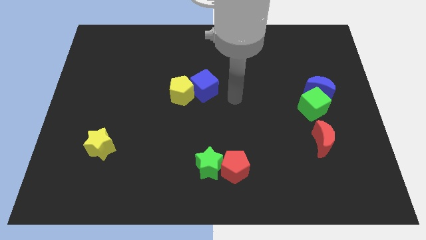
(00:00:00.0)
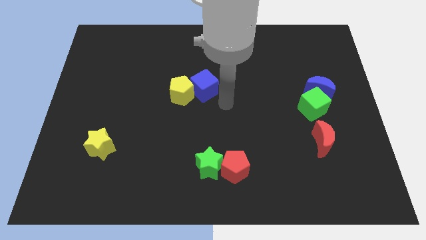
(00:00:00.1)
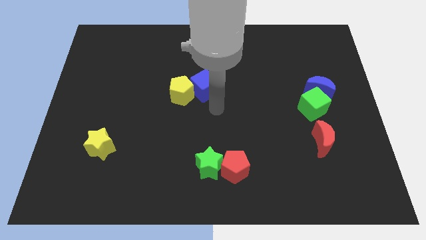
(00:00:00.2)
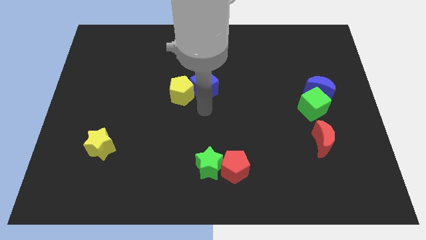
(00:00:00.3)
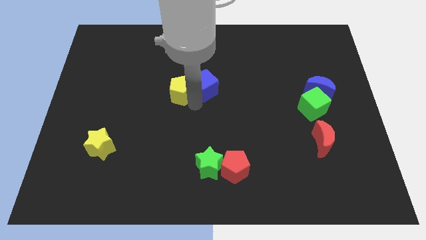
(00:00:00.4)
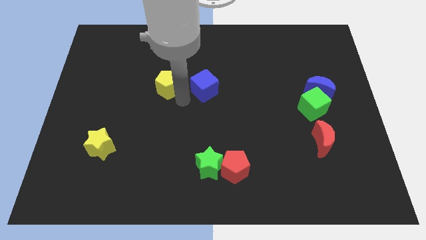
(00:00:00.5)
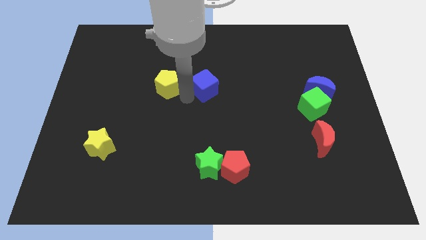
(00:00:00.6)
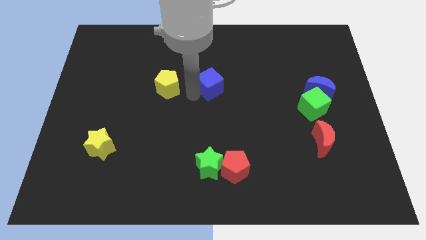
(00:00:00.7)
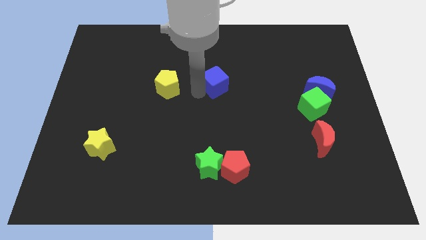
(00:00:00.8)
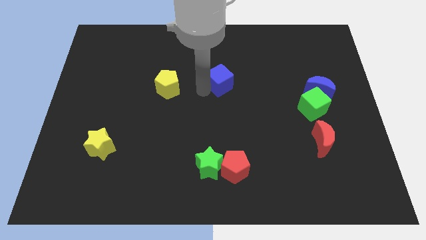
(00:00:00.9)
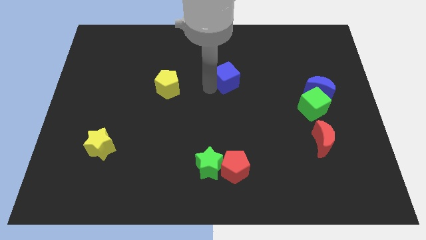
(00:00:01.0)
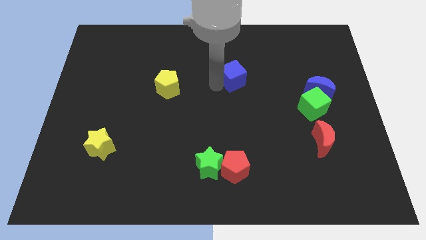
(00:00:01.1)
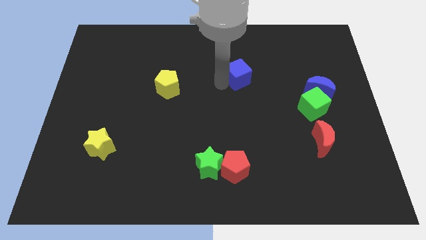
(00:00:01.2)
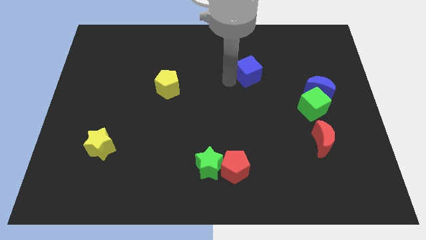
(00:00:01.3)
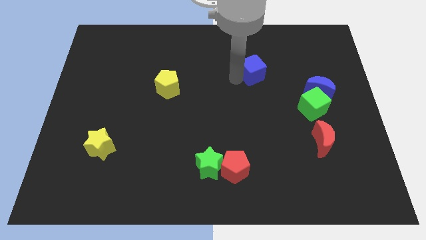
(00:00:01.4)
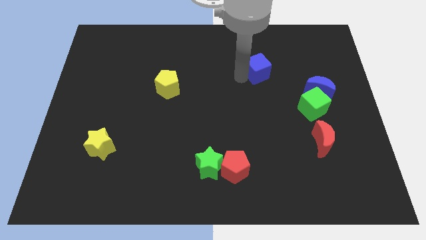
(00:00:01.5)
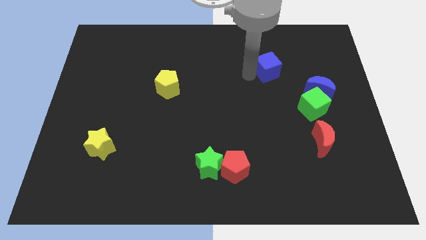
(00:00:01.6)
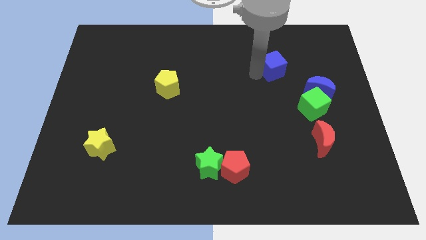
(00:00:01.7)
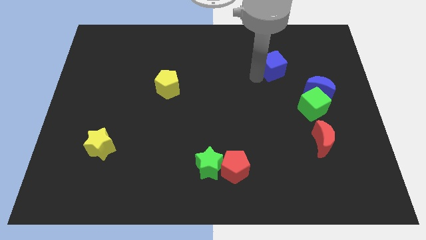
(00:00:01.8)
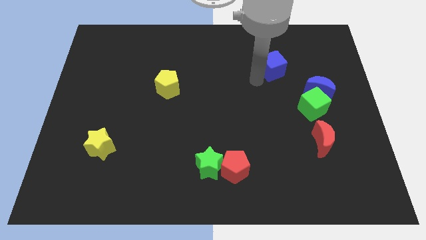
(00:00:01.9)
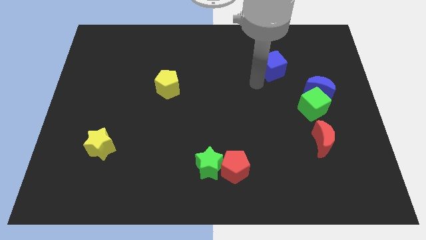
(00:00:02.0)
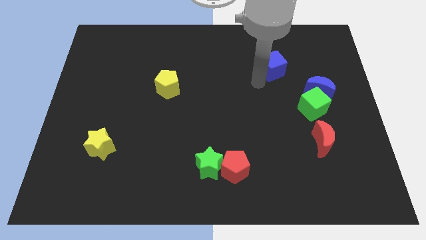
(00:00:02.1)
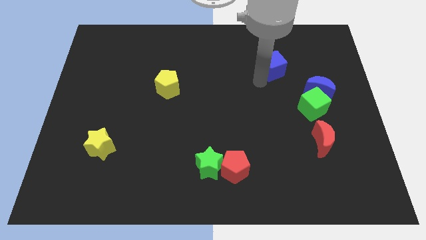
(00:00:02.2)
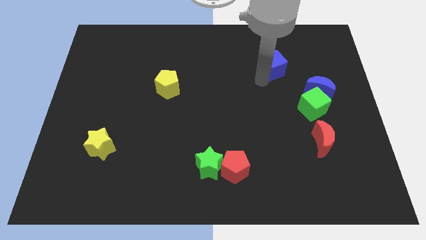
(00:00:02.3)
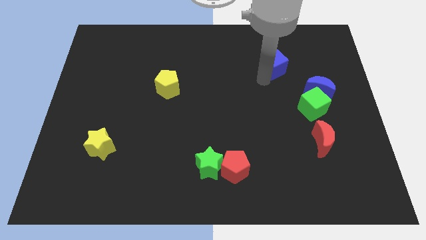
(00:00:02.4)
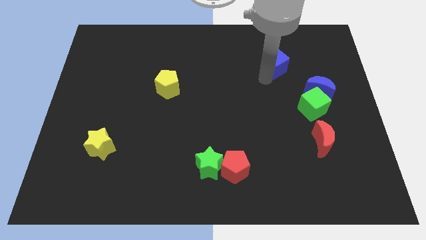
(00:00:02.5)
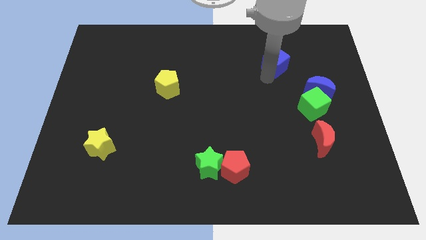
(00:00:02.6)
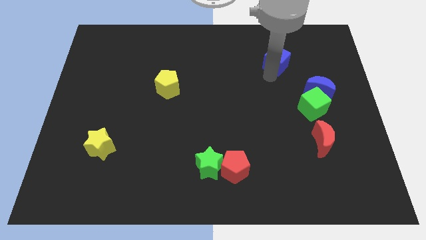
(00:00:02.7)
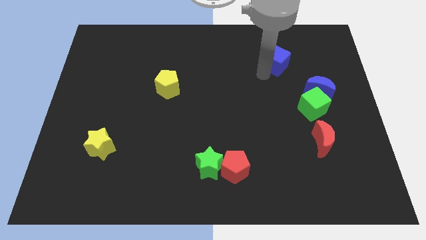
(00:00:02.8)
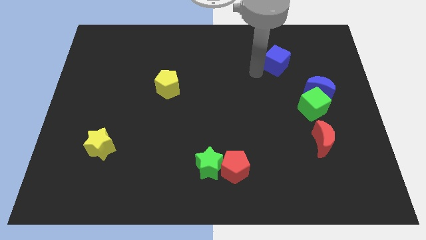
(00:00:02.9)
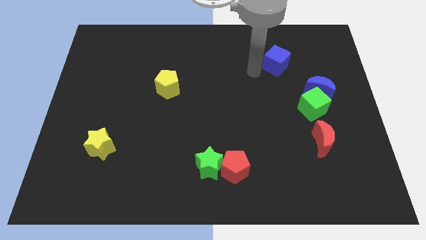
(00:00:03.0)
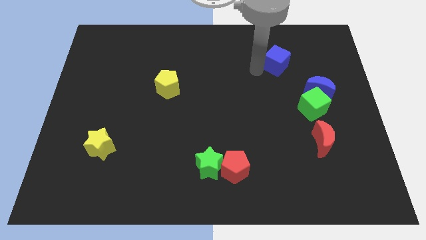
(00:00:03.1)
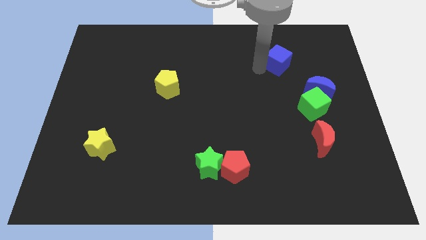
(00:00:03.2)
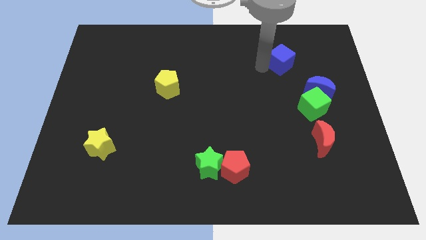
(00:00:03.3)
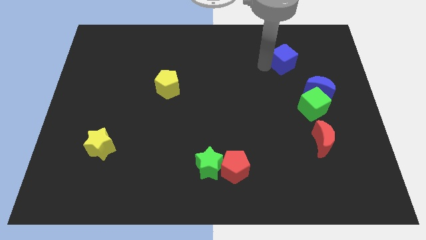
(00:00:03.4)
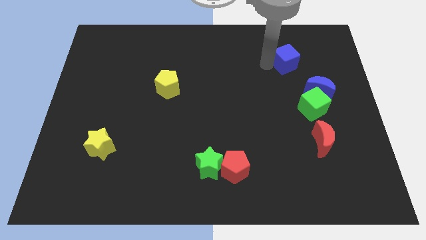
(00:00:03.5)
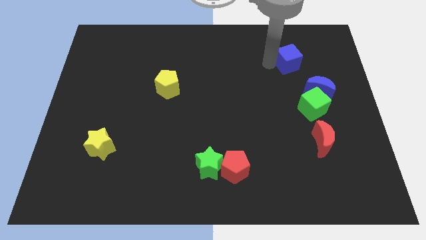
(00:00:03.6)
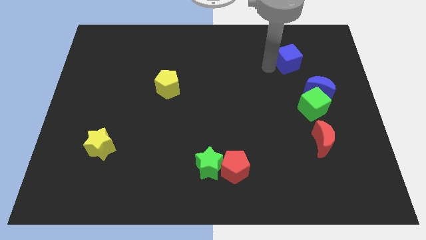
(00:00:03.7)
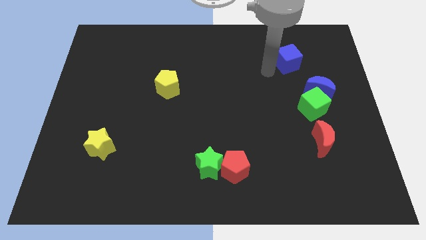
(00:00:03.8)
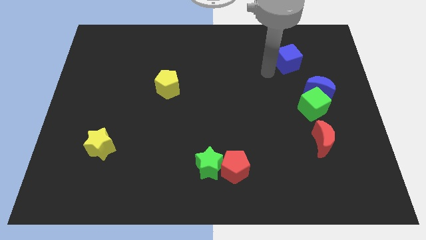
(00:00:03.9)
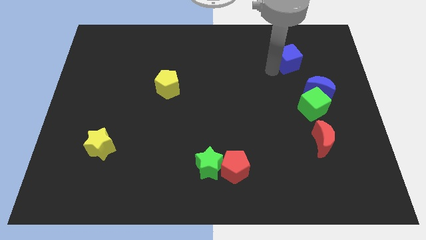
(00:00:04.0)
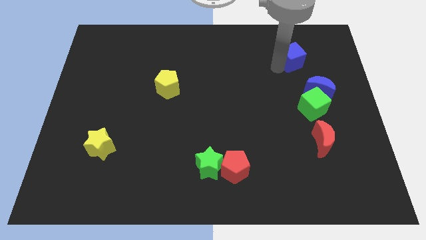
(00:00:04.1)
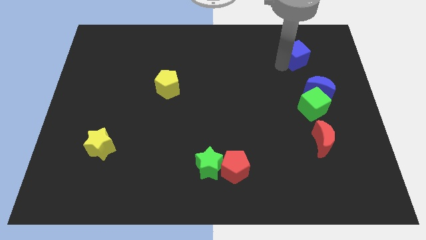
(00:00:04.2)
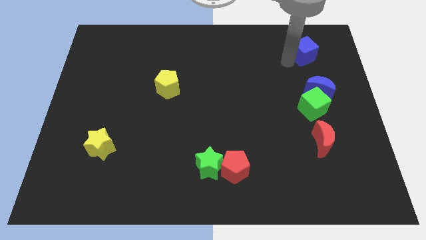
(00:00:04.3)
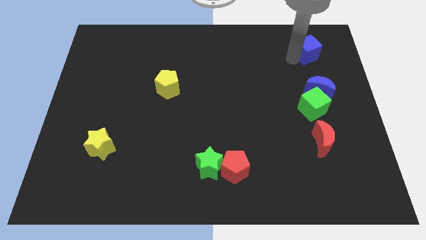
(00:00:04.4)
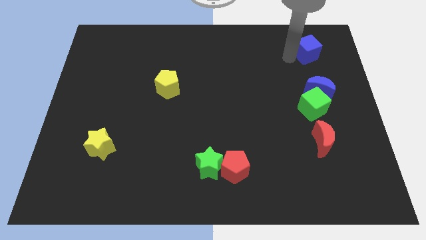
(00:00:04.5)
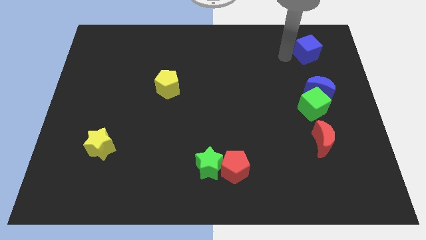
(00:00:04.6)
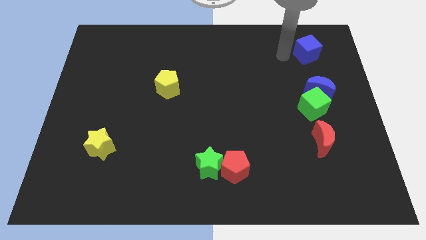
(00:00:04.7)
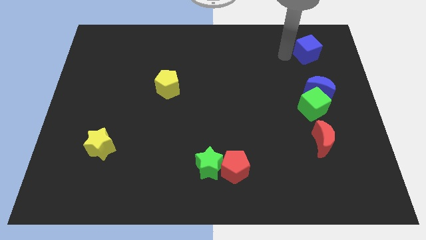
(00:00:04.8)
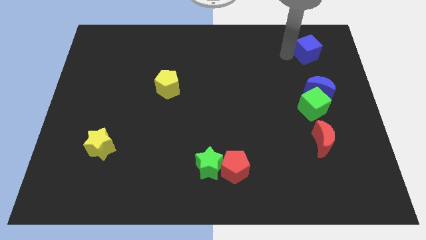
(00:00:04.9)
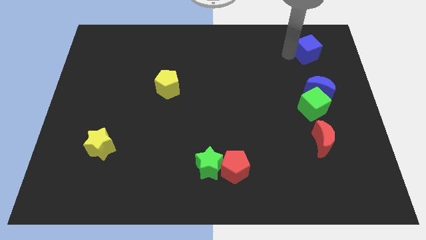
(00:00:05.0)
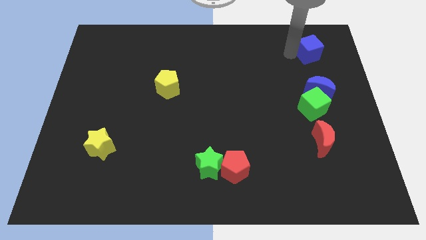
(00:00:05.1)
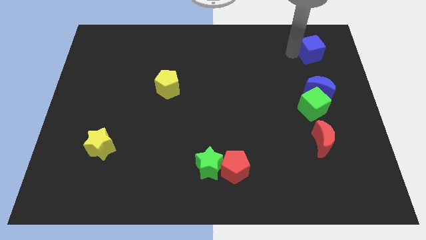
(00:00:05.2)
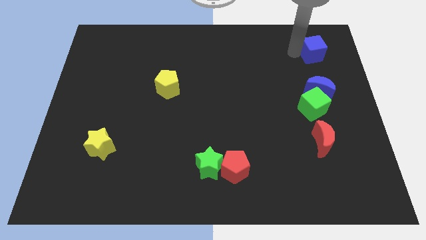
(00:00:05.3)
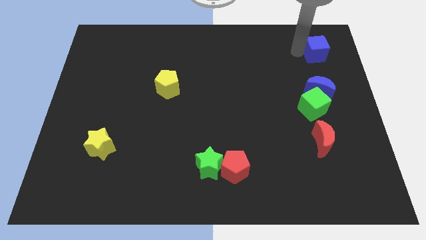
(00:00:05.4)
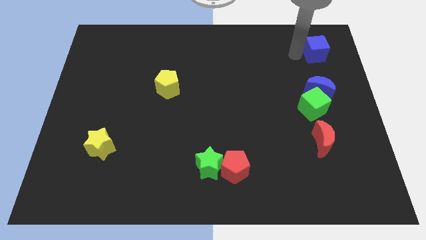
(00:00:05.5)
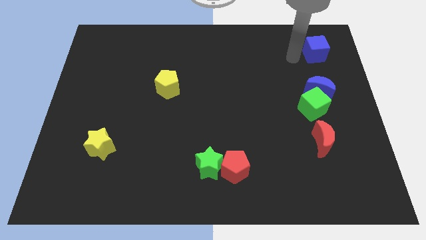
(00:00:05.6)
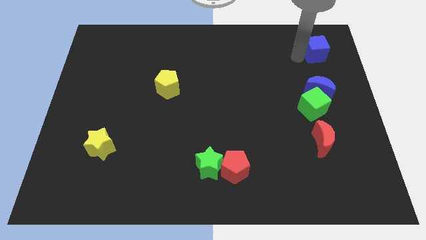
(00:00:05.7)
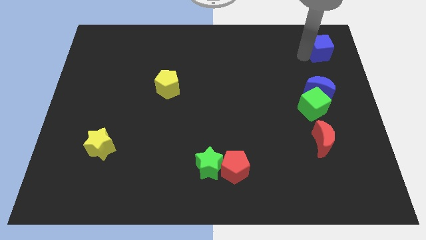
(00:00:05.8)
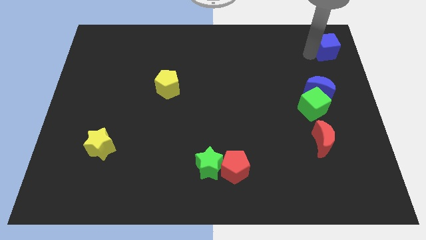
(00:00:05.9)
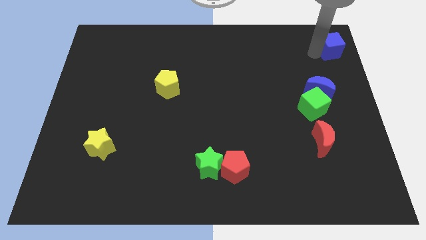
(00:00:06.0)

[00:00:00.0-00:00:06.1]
push the blue cube to the top right

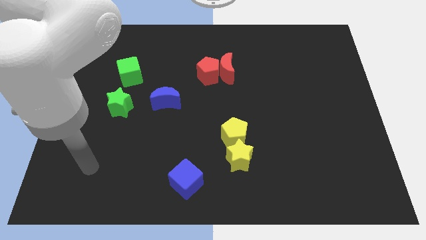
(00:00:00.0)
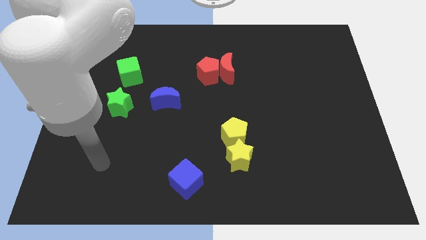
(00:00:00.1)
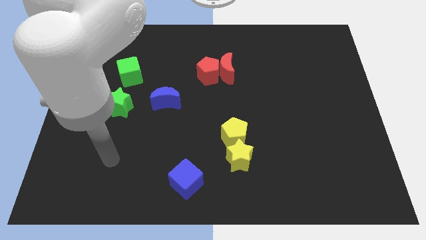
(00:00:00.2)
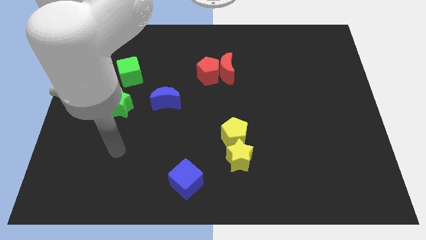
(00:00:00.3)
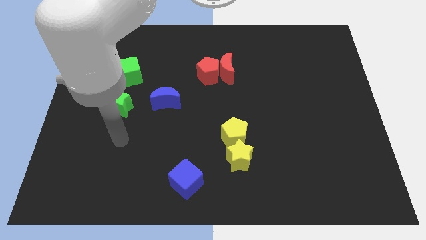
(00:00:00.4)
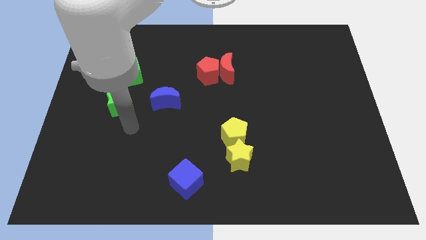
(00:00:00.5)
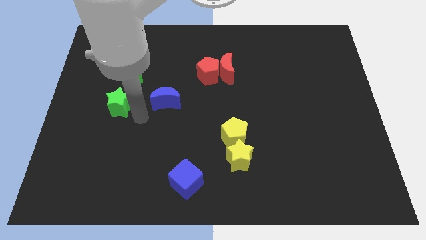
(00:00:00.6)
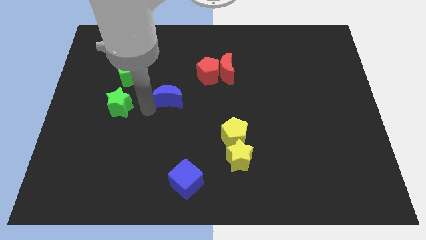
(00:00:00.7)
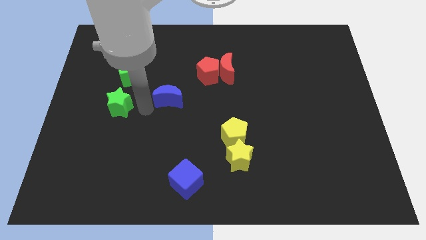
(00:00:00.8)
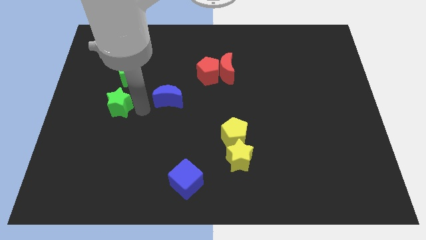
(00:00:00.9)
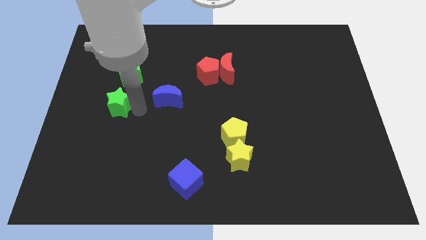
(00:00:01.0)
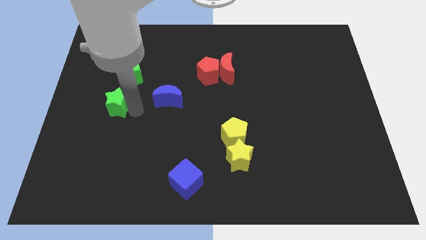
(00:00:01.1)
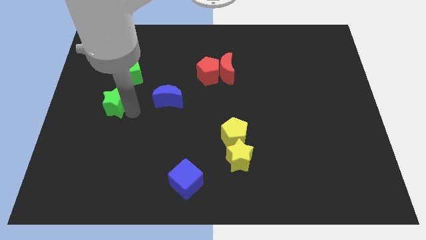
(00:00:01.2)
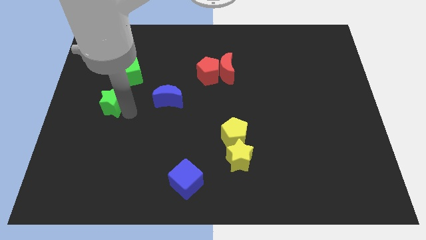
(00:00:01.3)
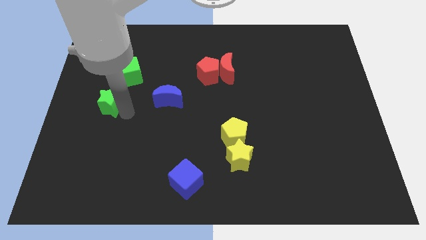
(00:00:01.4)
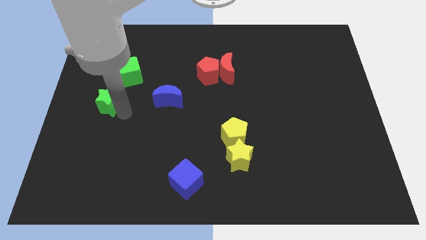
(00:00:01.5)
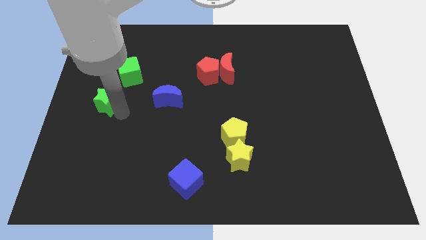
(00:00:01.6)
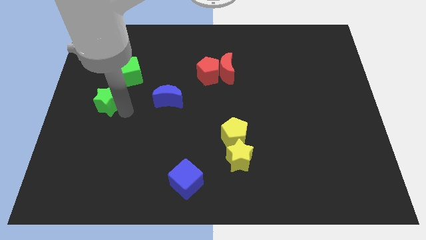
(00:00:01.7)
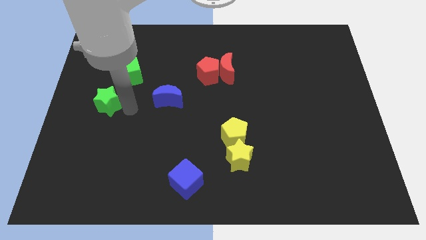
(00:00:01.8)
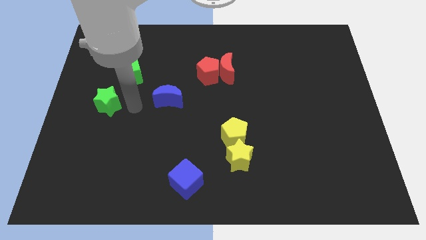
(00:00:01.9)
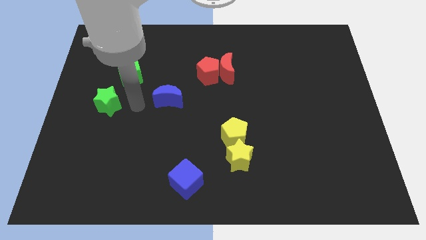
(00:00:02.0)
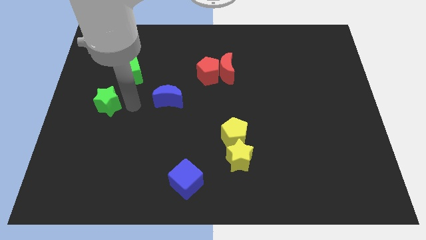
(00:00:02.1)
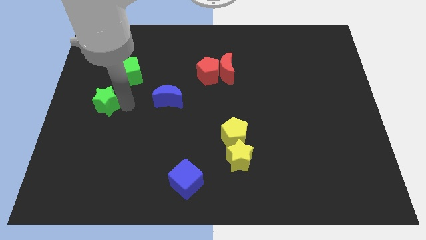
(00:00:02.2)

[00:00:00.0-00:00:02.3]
slide the green star to the center left
